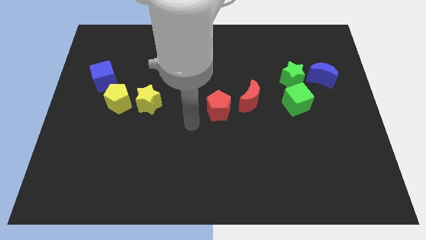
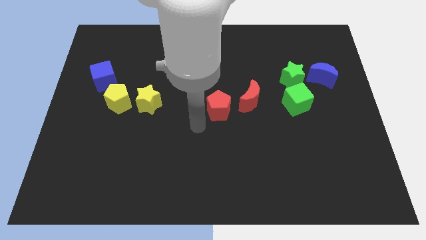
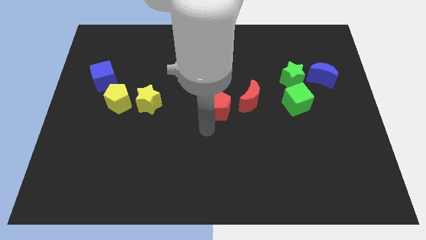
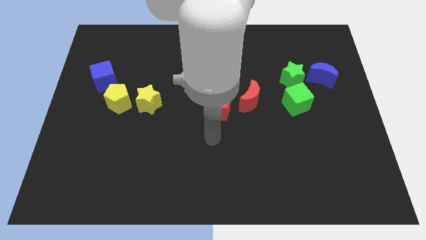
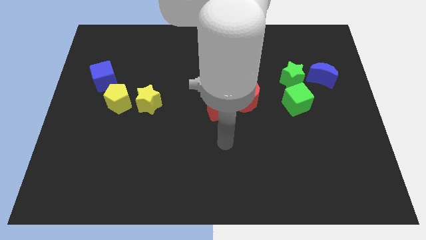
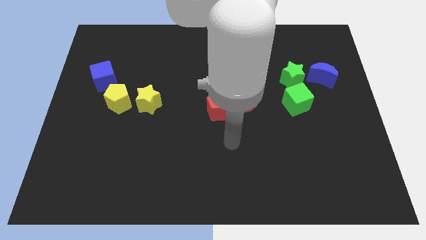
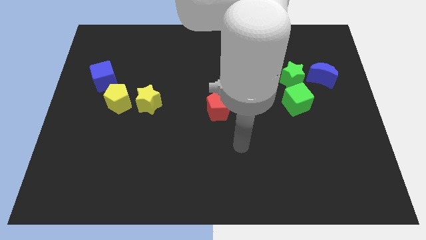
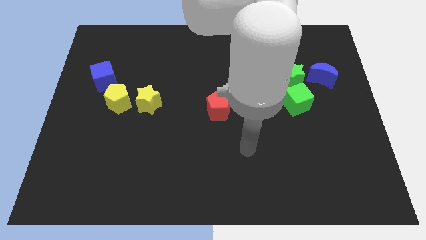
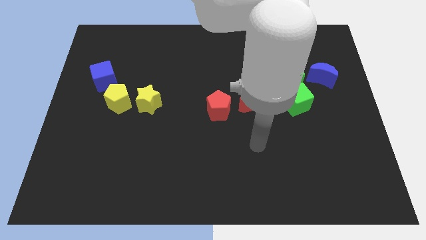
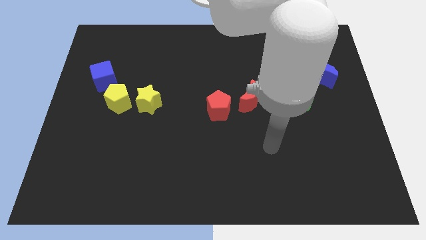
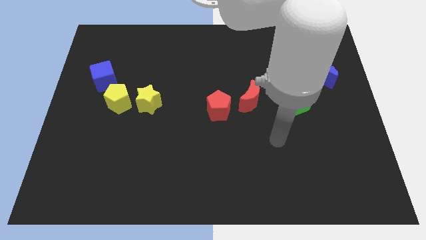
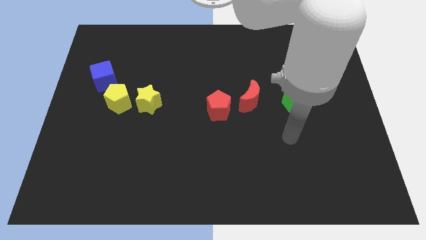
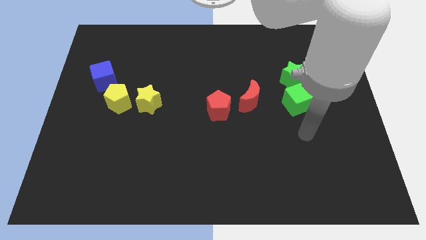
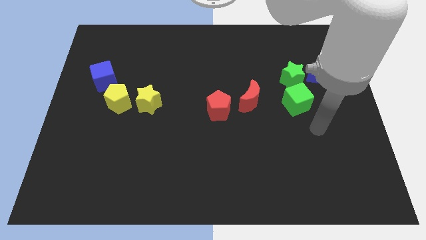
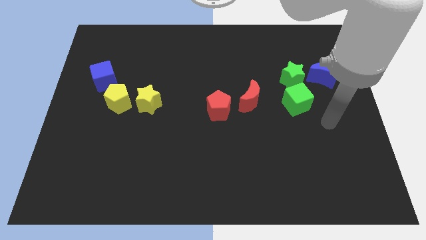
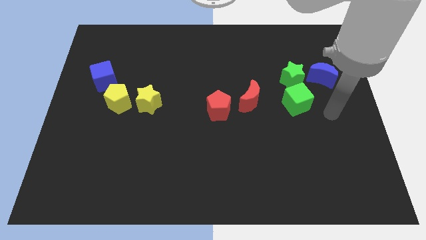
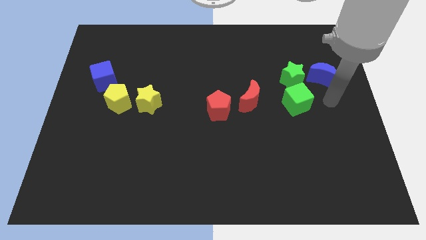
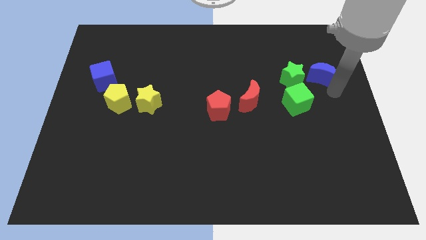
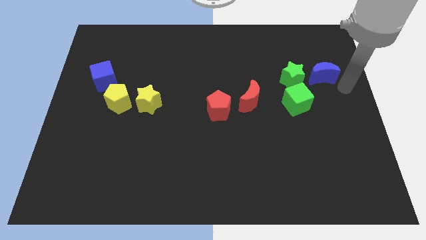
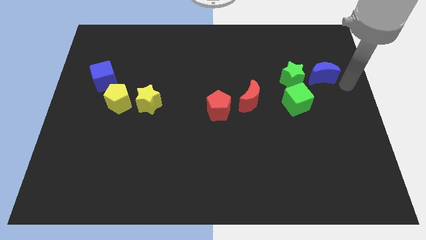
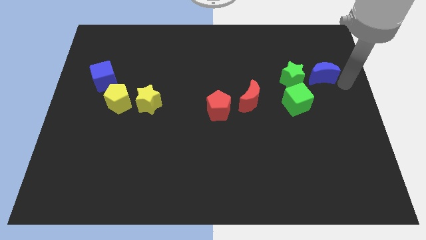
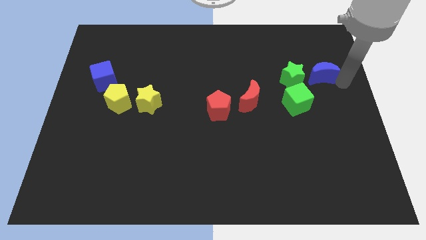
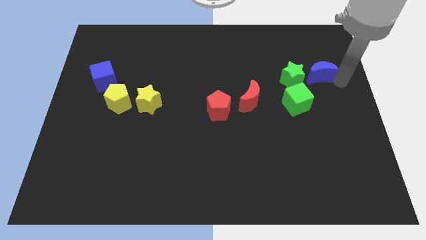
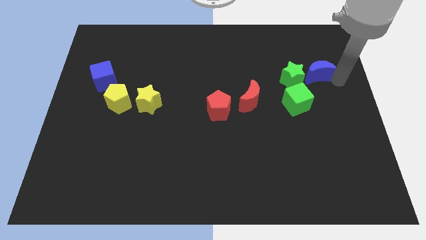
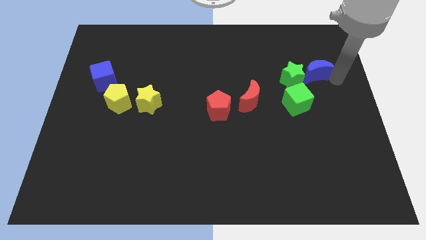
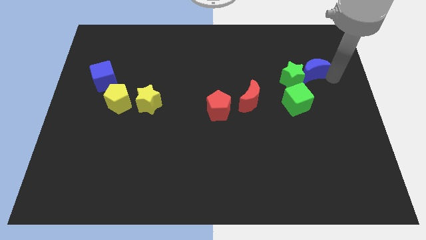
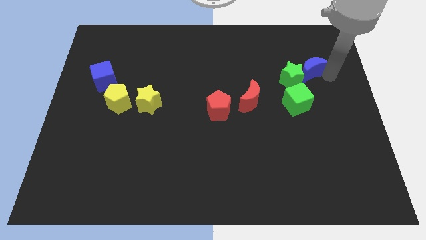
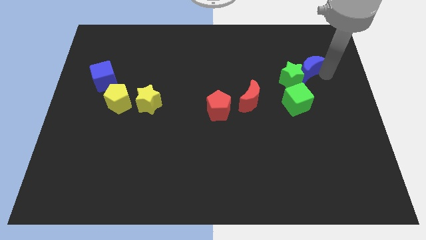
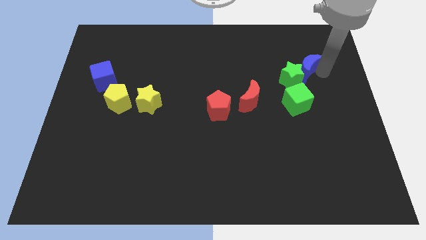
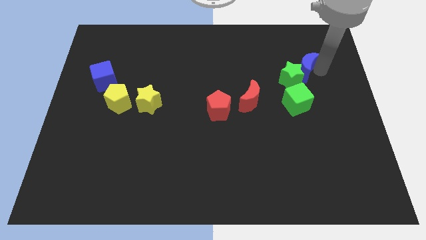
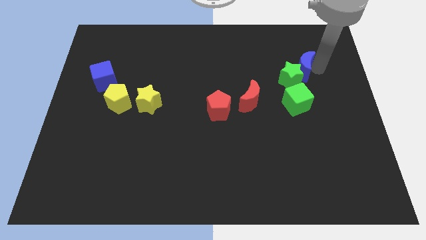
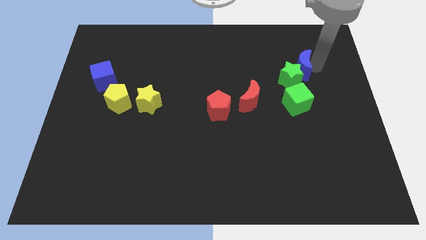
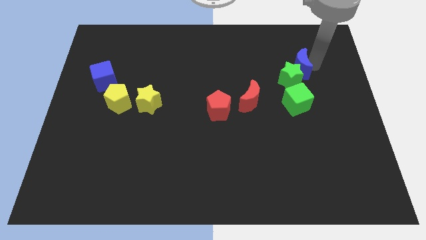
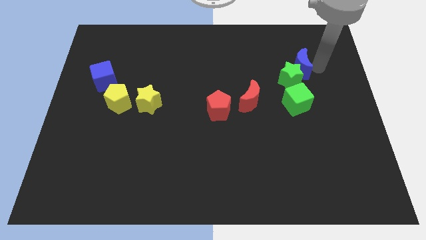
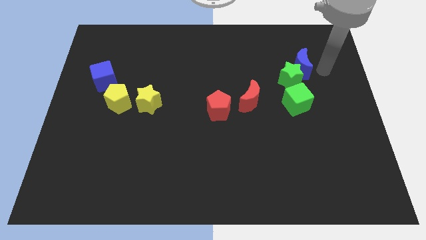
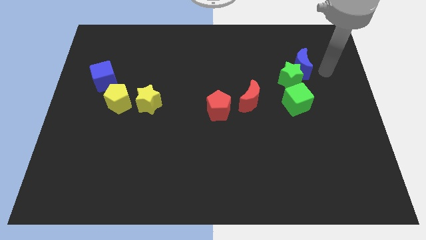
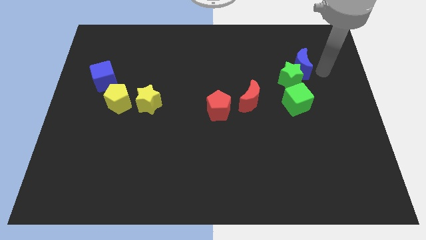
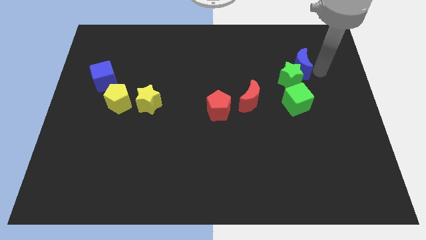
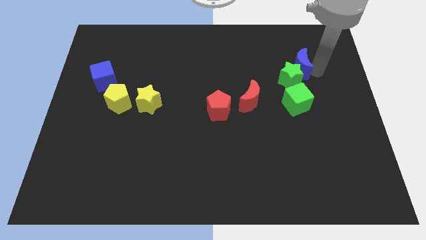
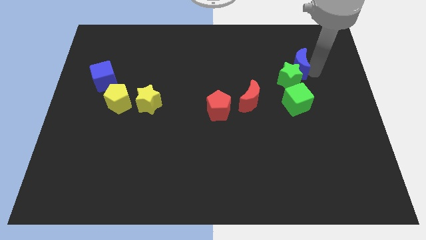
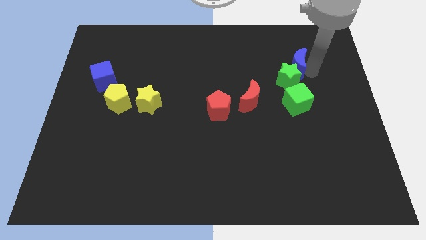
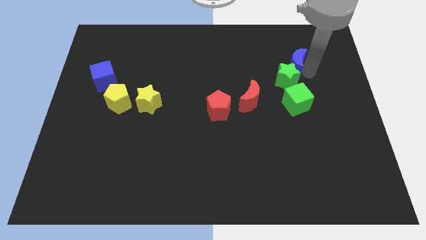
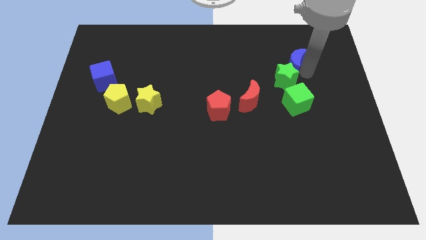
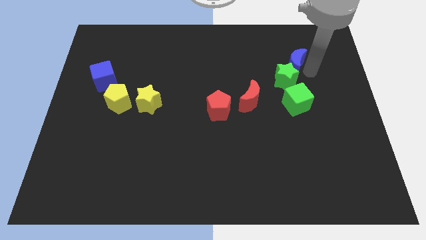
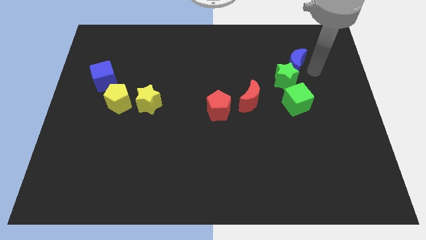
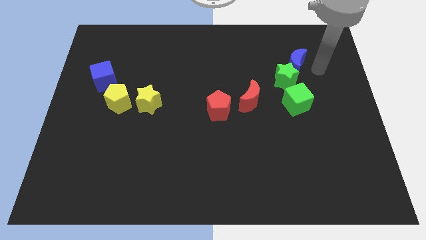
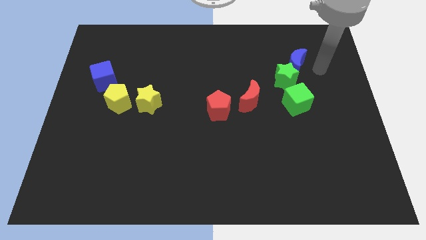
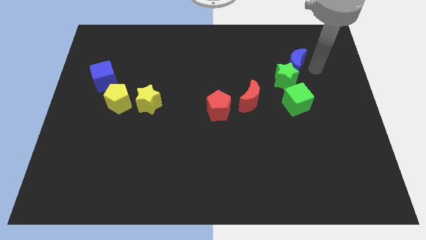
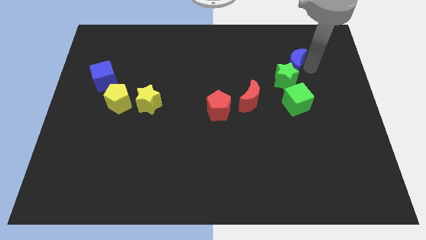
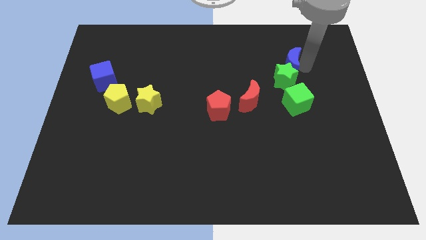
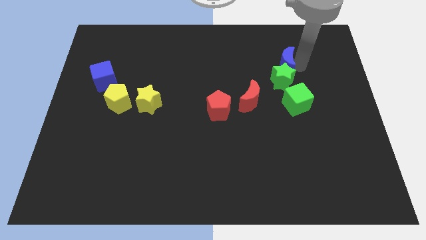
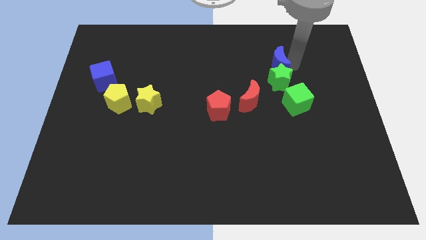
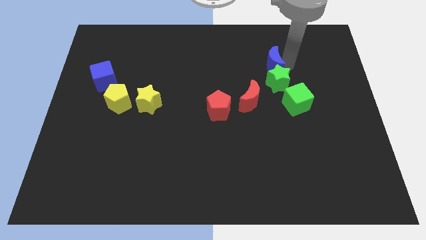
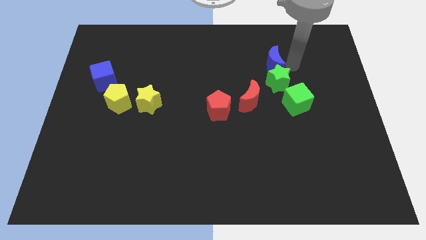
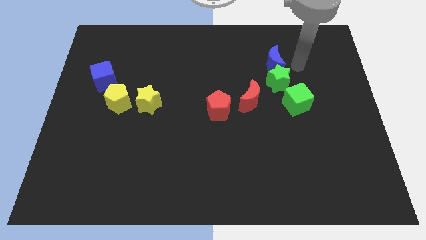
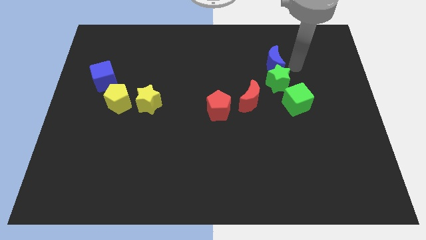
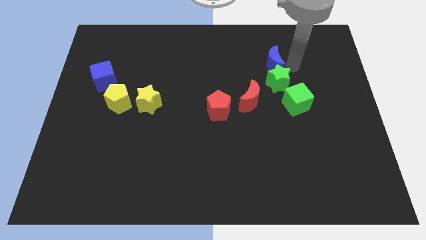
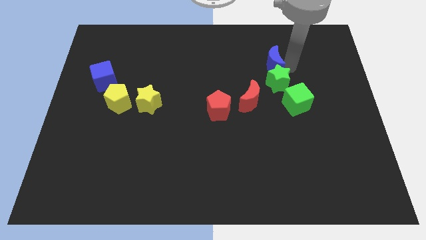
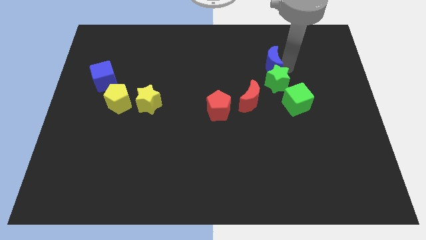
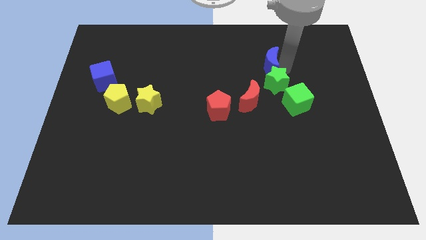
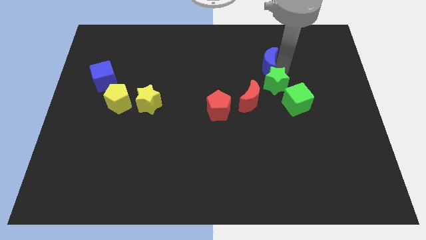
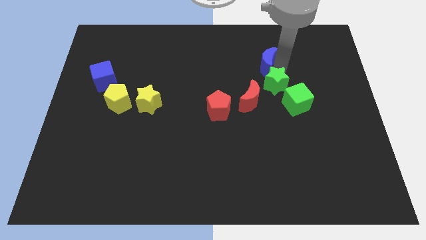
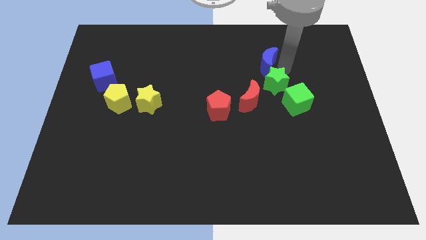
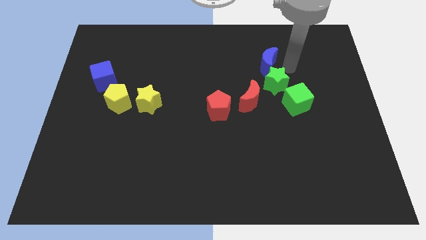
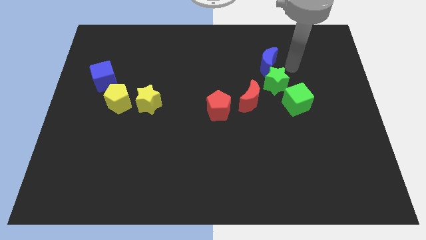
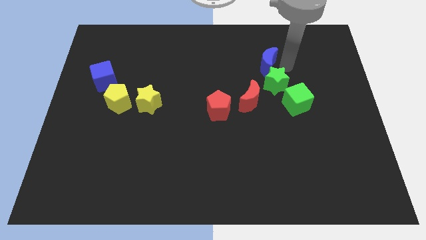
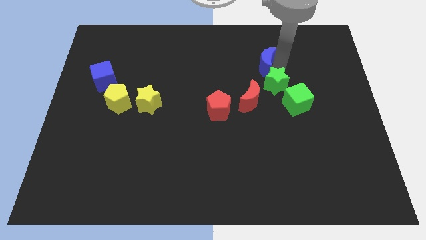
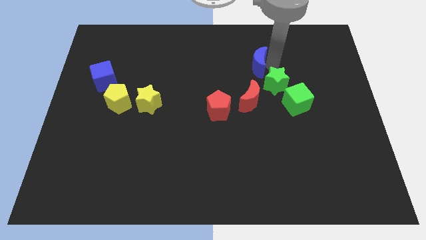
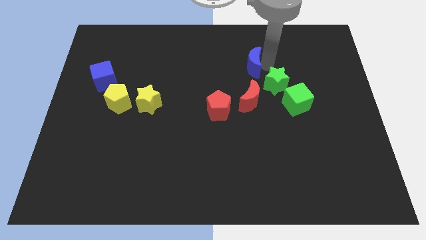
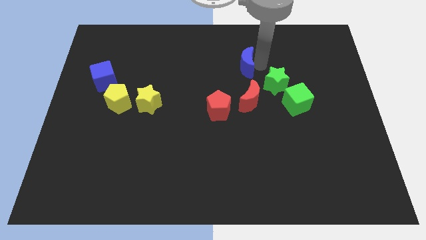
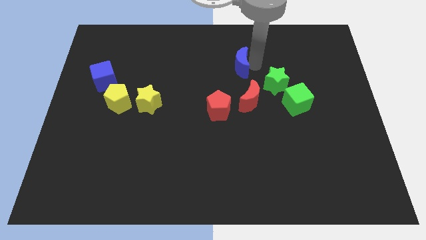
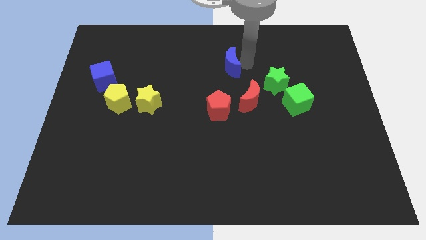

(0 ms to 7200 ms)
slide the blue moon to the left

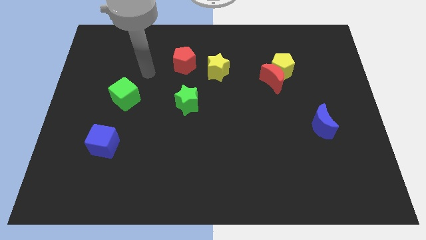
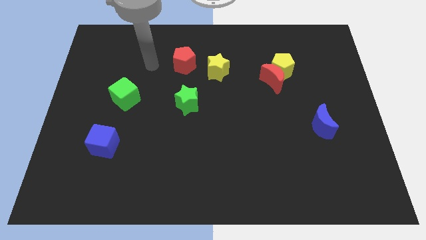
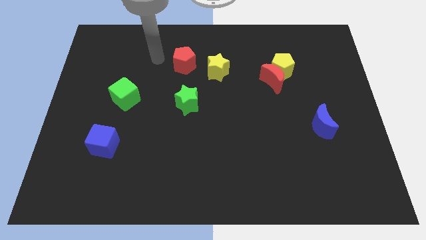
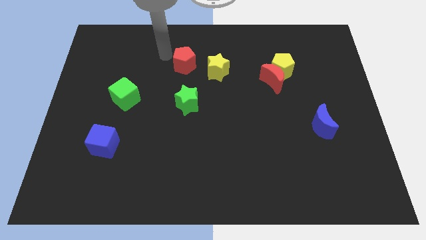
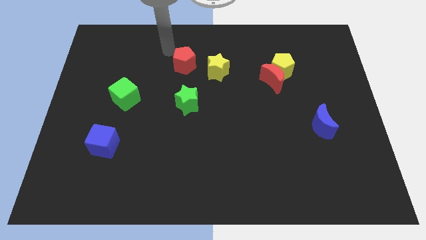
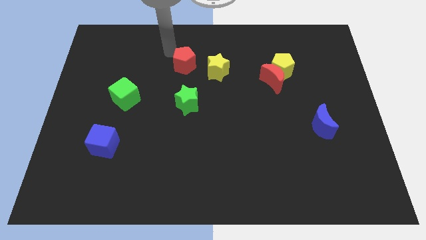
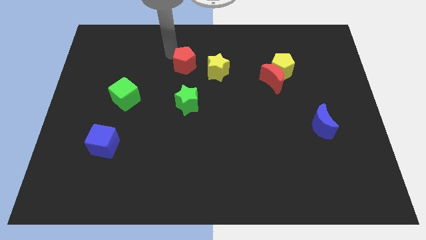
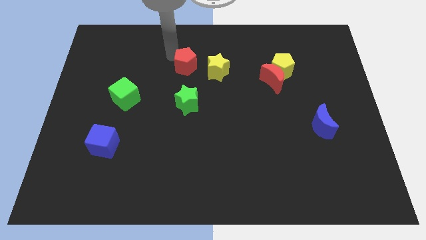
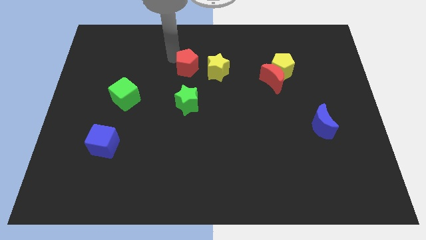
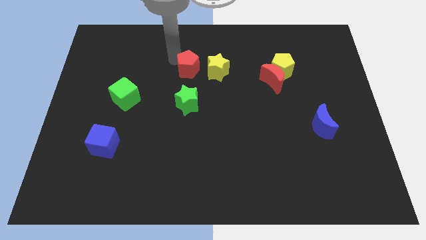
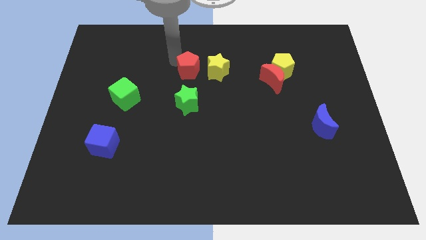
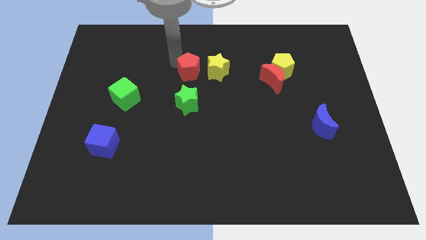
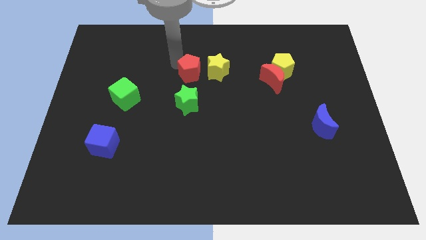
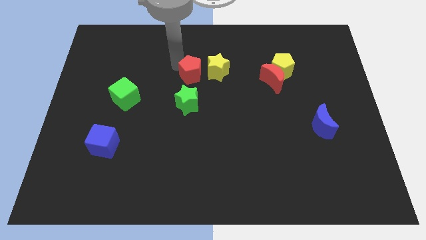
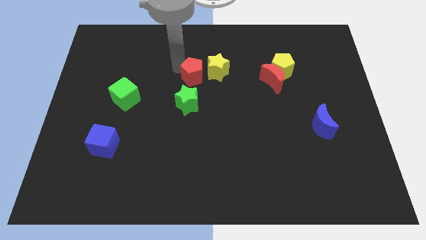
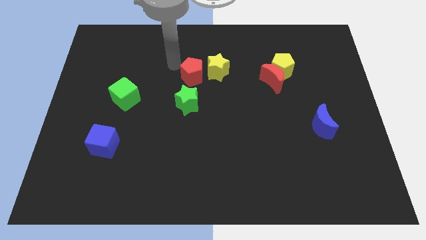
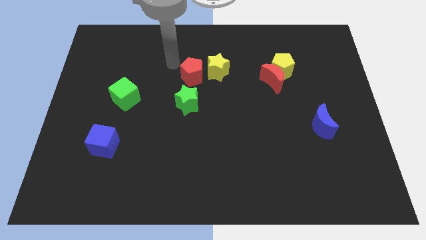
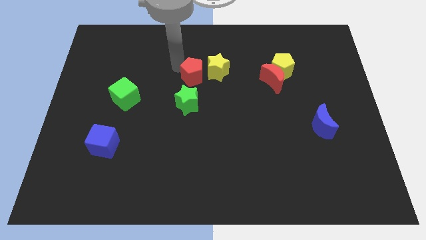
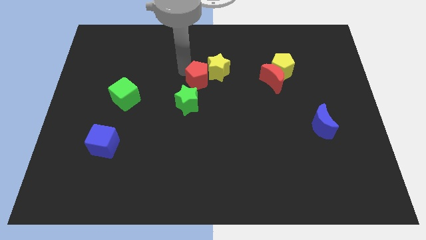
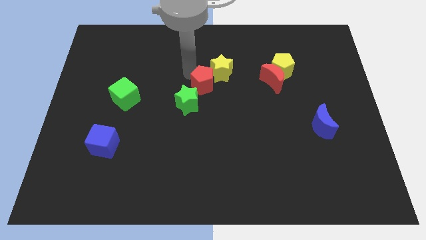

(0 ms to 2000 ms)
slide the red pentagon down and to the right a little bit
